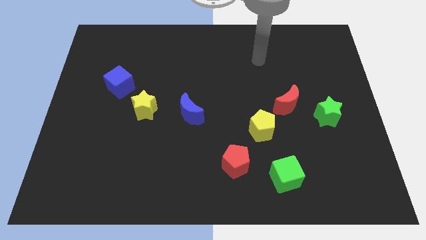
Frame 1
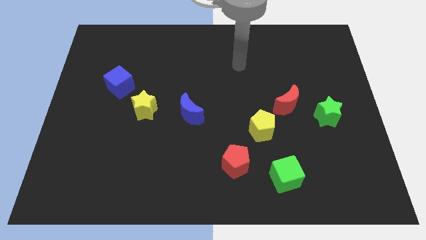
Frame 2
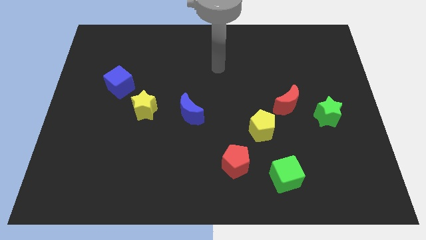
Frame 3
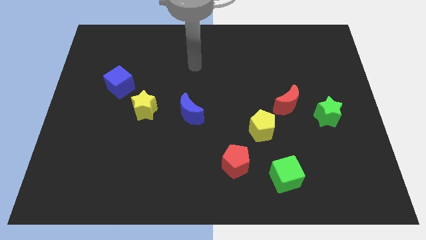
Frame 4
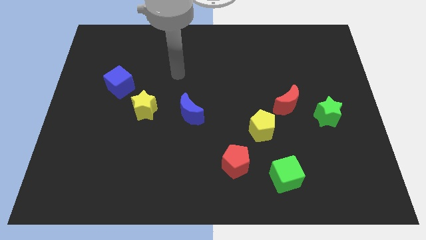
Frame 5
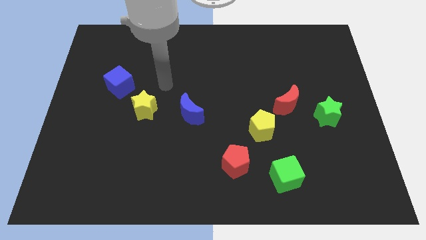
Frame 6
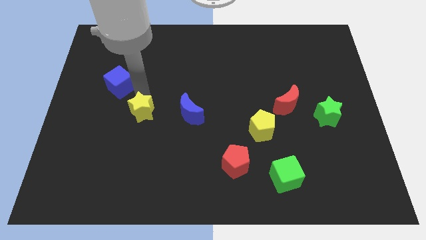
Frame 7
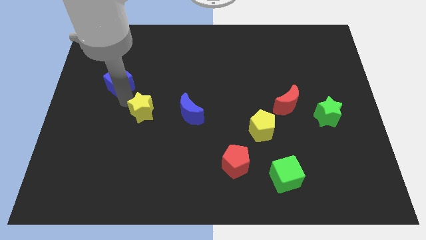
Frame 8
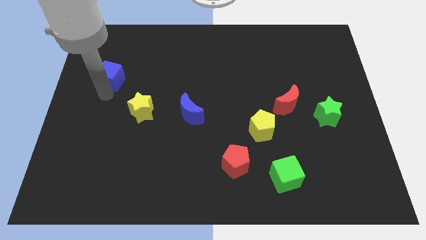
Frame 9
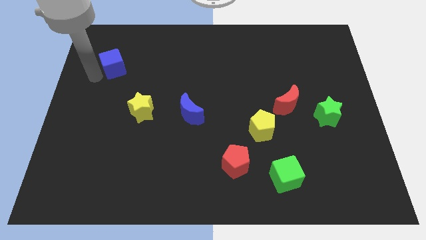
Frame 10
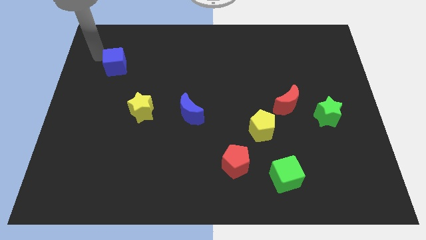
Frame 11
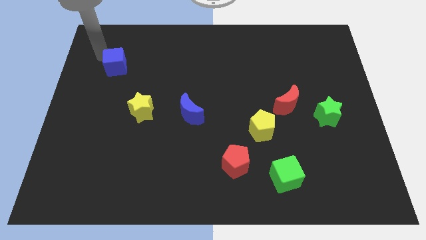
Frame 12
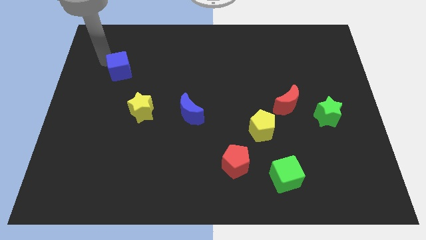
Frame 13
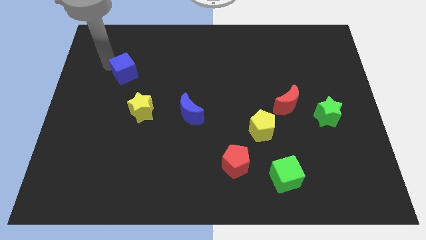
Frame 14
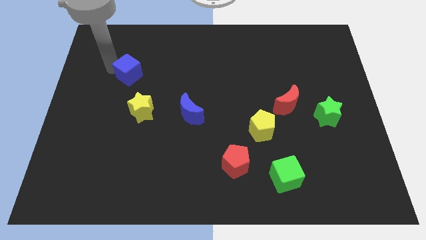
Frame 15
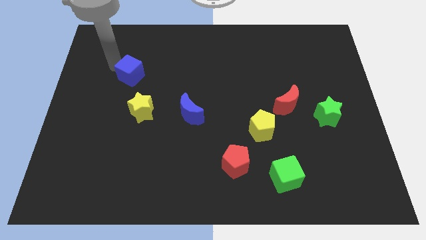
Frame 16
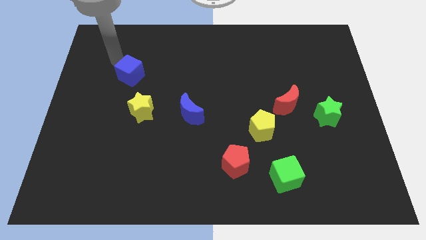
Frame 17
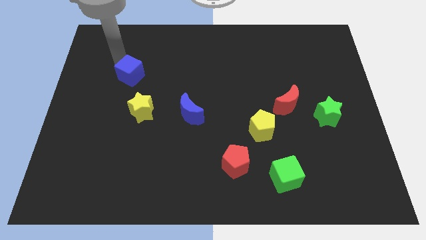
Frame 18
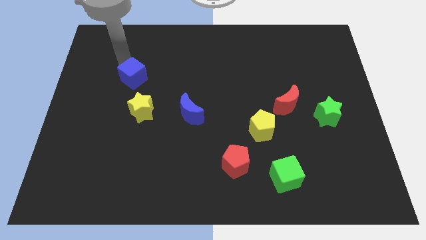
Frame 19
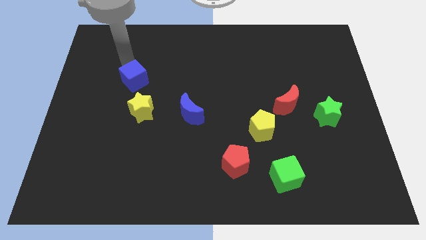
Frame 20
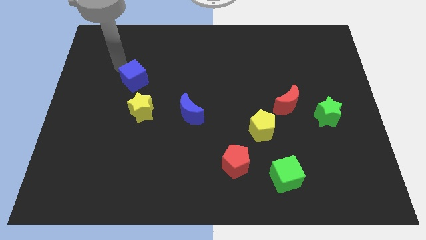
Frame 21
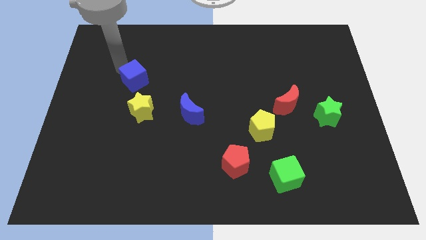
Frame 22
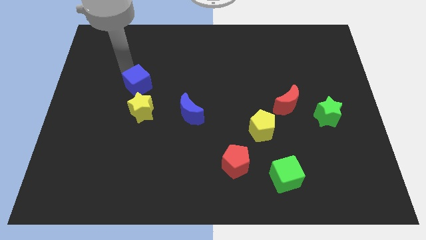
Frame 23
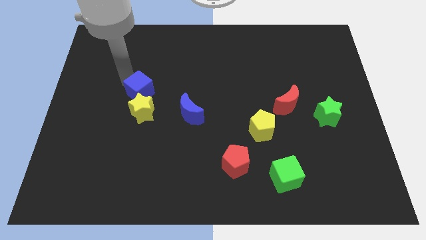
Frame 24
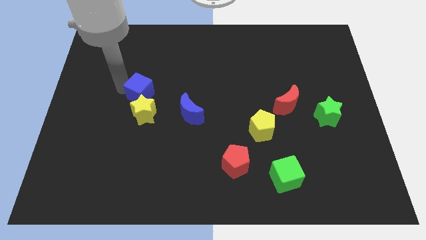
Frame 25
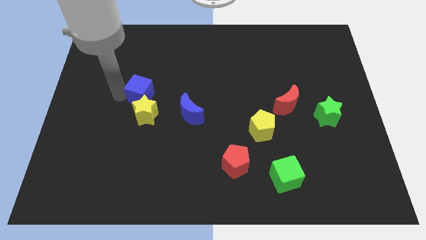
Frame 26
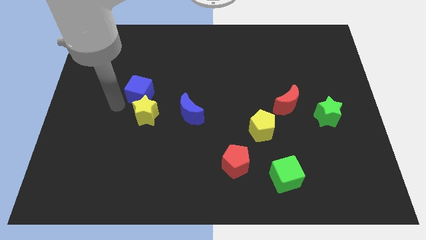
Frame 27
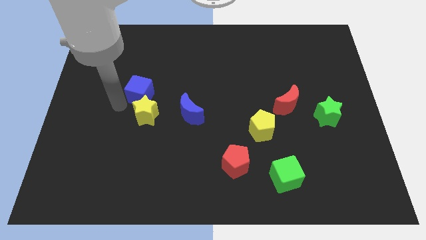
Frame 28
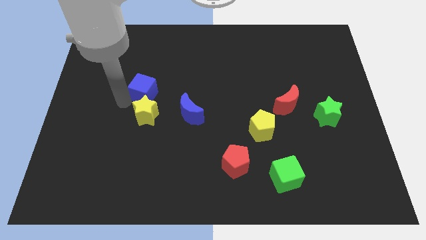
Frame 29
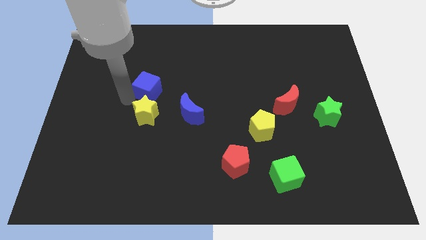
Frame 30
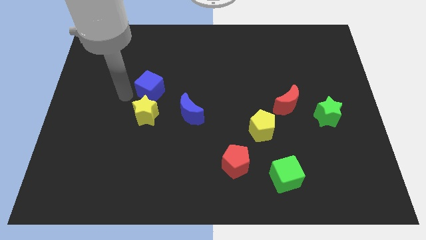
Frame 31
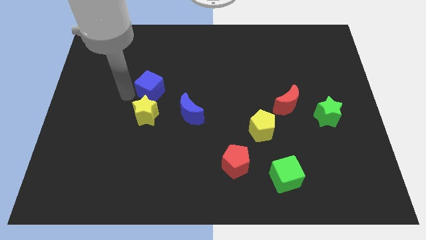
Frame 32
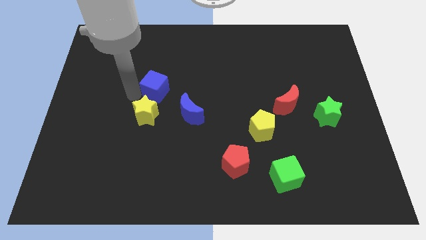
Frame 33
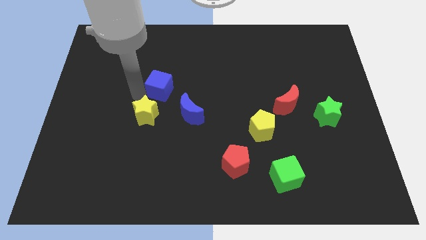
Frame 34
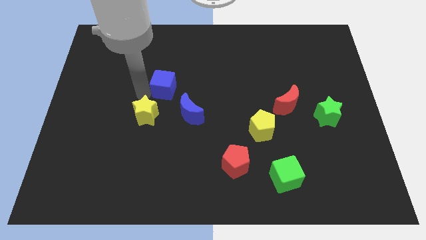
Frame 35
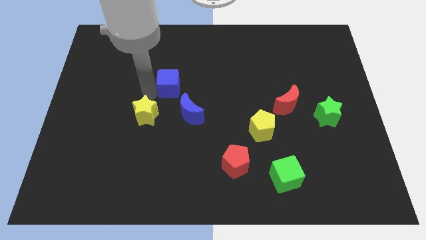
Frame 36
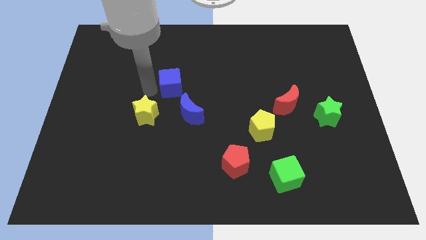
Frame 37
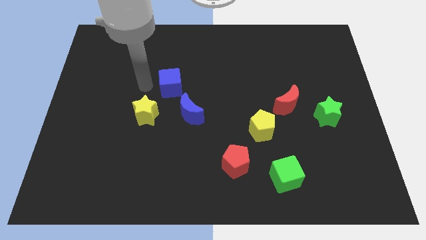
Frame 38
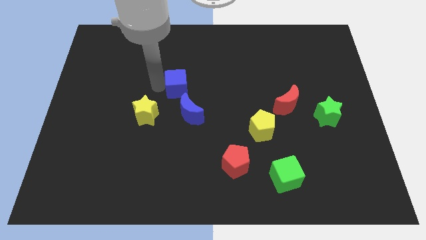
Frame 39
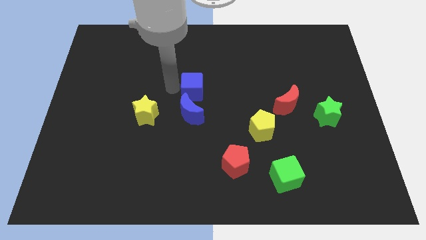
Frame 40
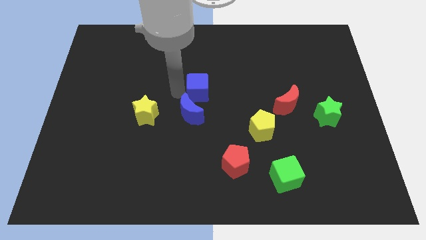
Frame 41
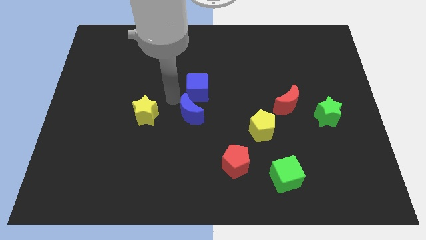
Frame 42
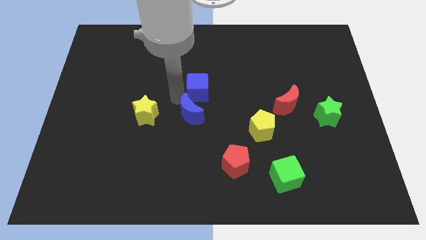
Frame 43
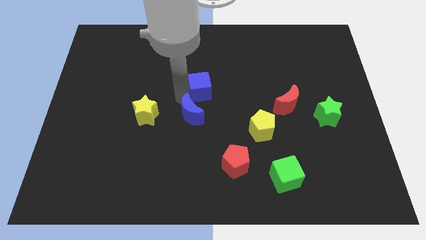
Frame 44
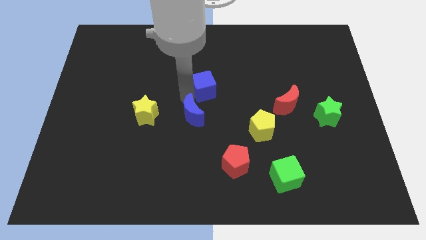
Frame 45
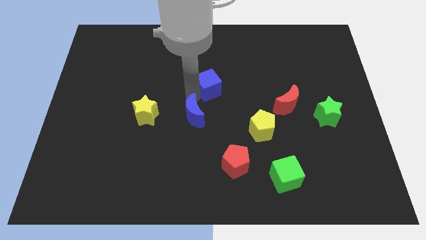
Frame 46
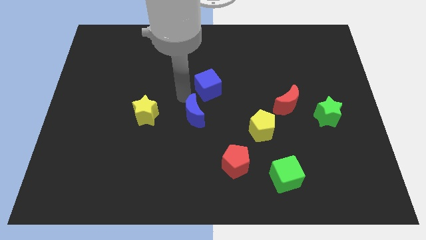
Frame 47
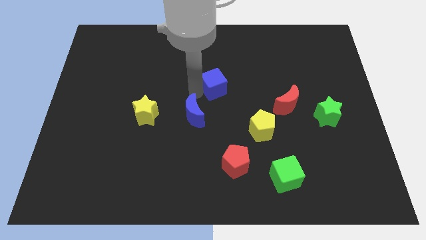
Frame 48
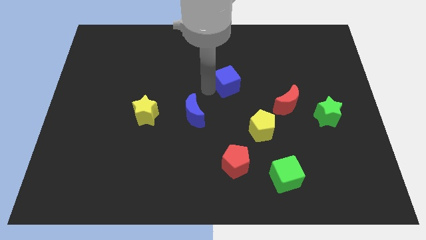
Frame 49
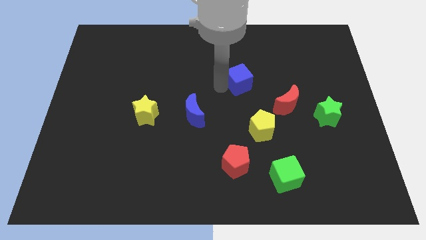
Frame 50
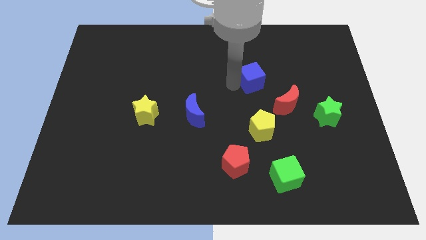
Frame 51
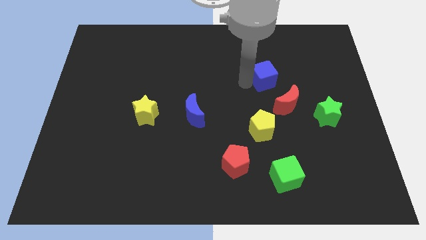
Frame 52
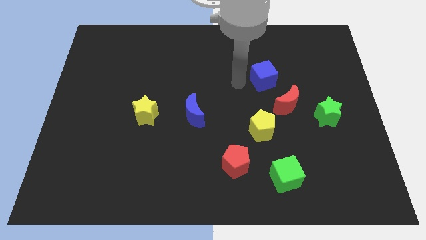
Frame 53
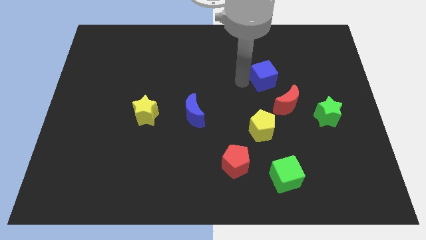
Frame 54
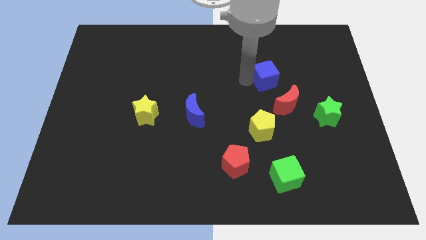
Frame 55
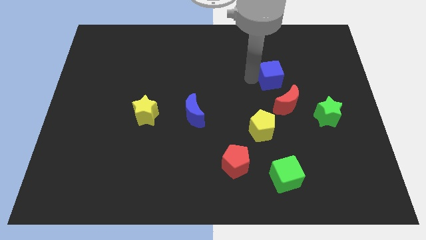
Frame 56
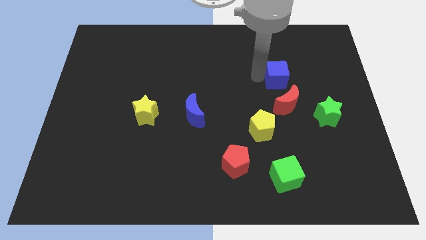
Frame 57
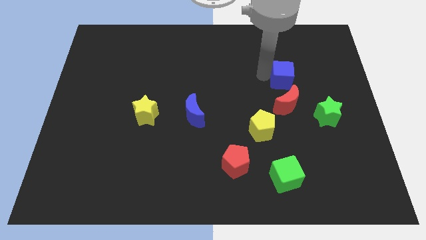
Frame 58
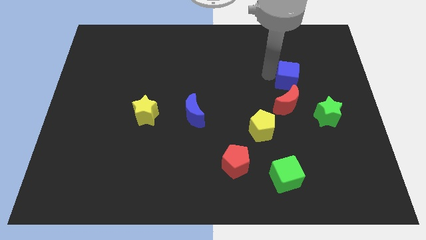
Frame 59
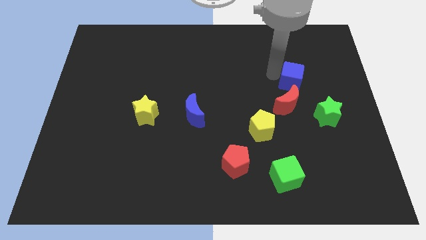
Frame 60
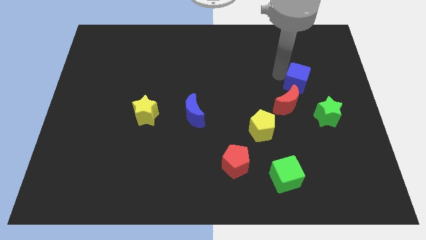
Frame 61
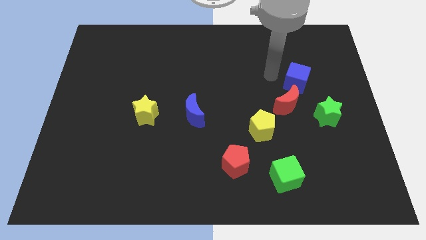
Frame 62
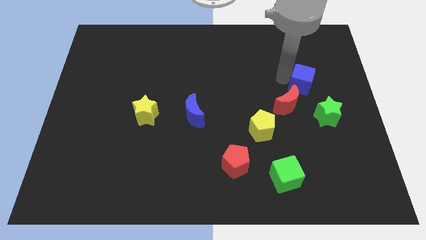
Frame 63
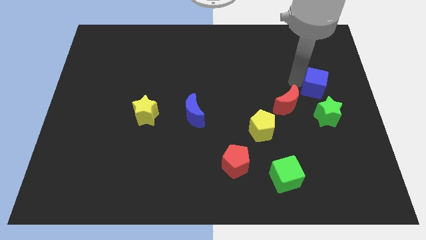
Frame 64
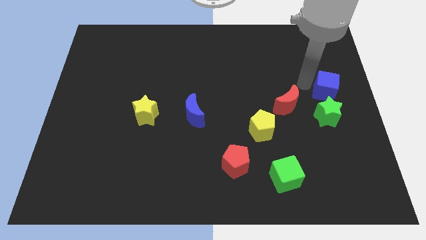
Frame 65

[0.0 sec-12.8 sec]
slide the blue cube to the right side
